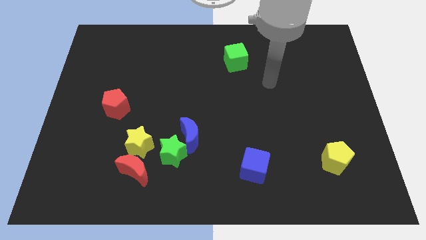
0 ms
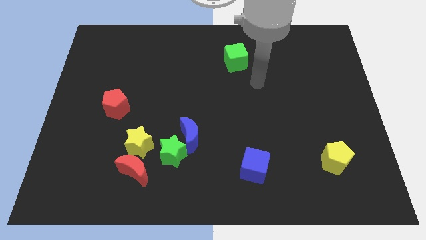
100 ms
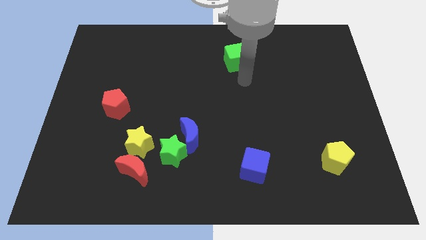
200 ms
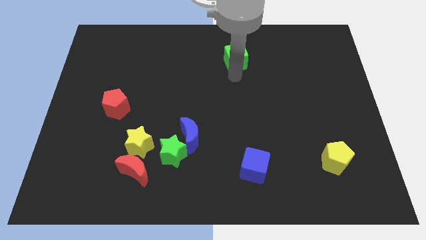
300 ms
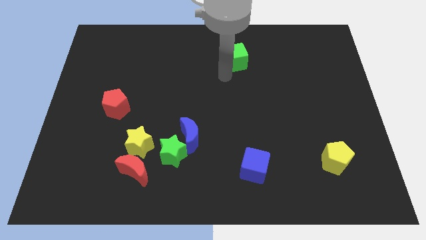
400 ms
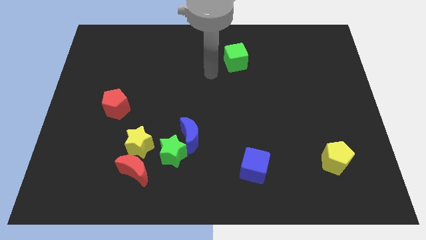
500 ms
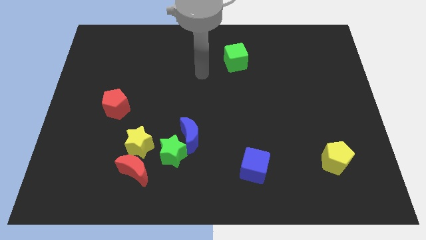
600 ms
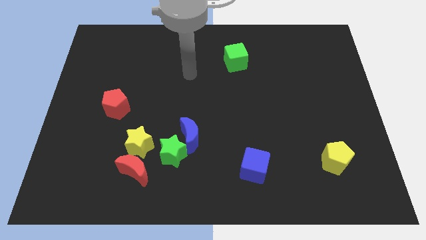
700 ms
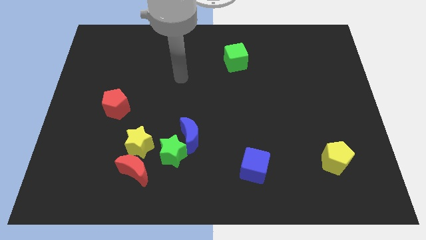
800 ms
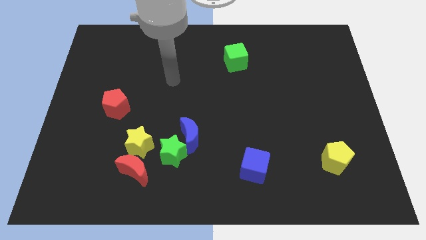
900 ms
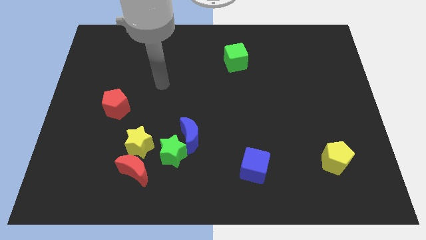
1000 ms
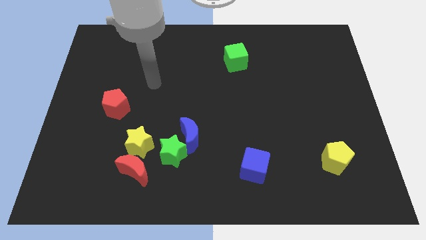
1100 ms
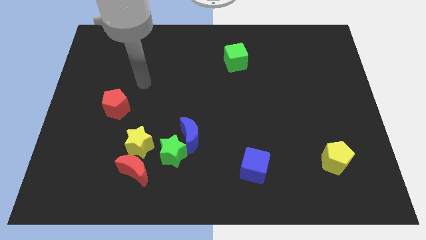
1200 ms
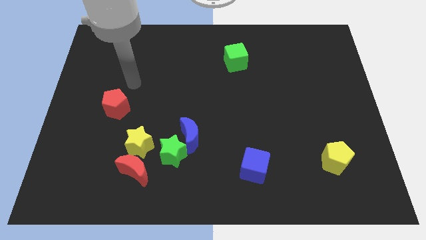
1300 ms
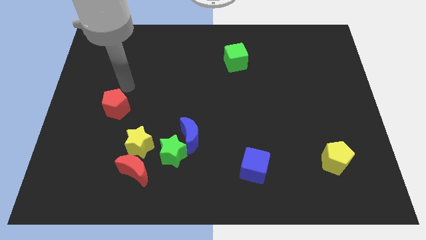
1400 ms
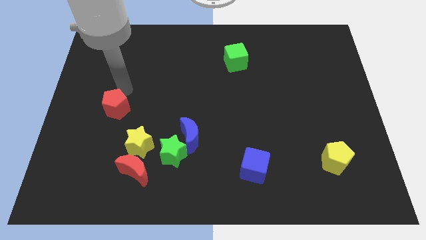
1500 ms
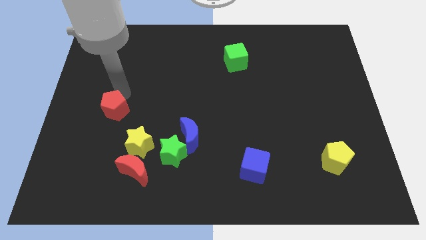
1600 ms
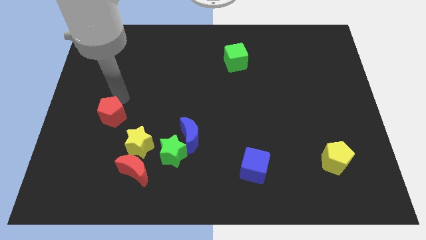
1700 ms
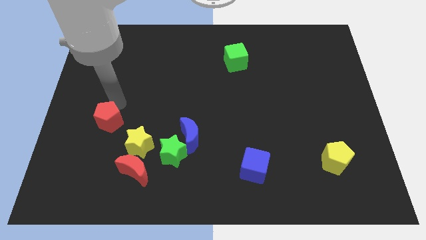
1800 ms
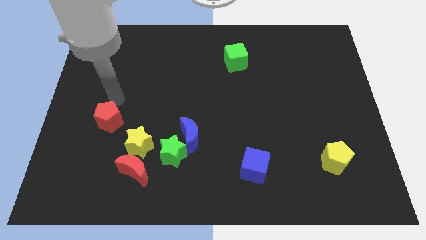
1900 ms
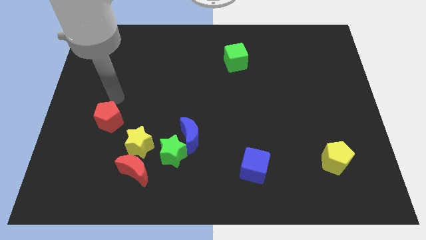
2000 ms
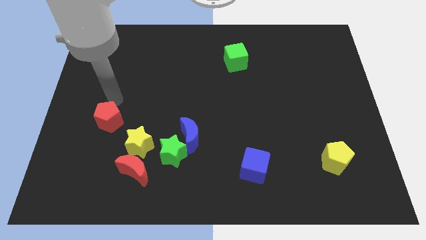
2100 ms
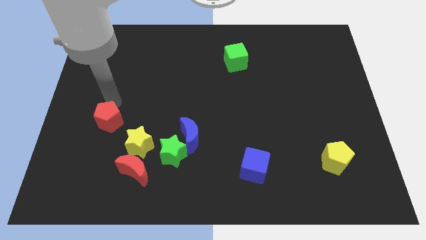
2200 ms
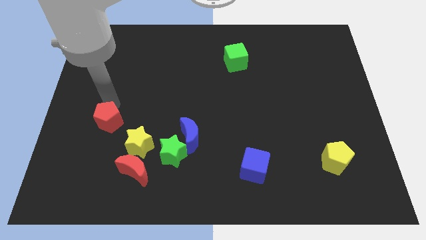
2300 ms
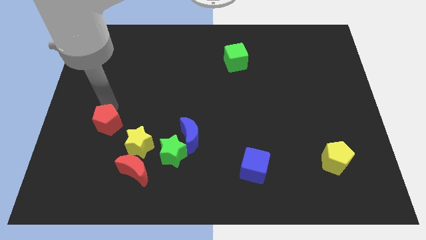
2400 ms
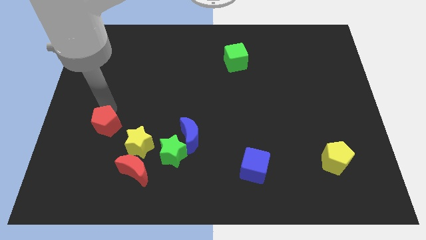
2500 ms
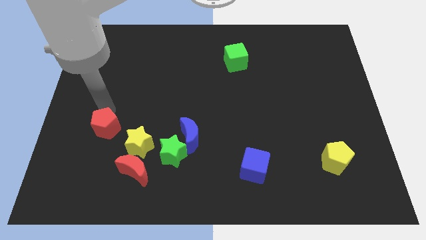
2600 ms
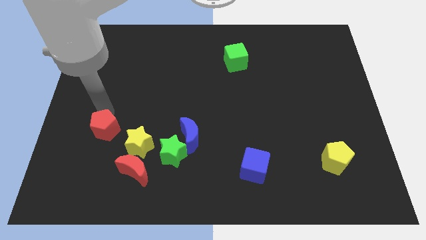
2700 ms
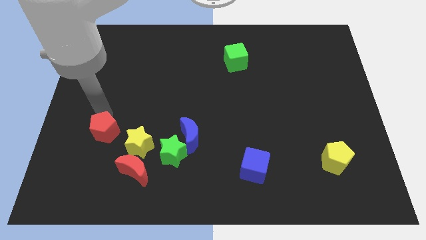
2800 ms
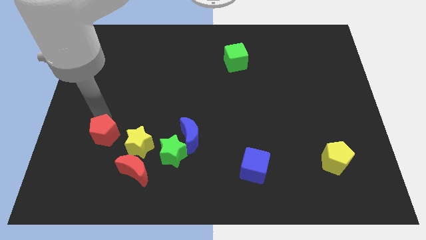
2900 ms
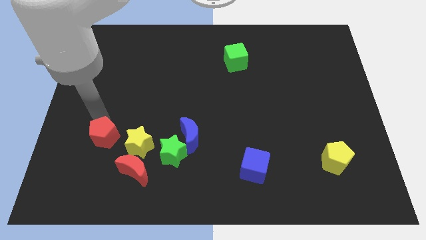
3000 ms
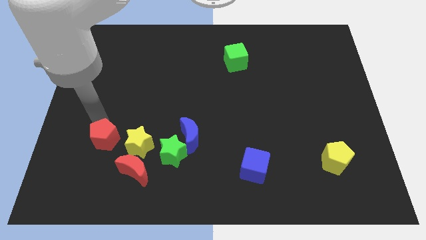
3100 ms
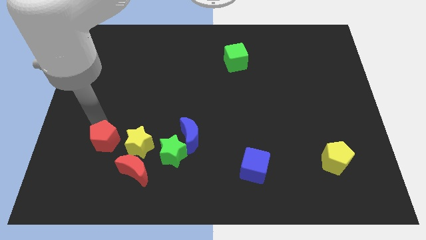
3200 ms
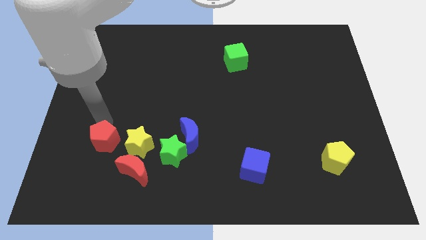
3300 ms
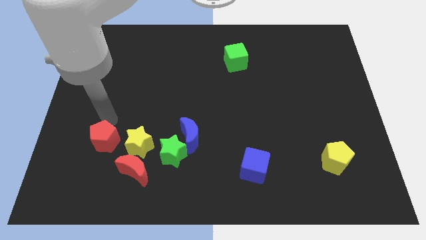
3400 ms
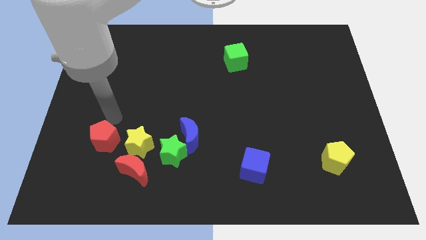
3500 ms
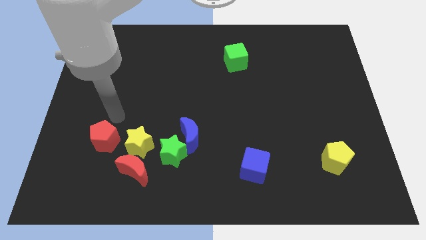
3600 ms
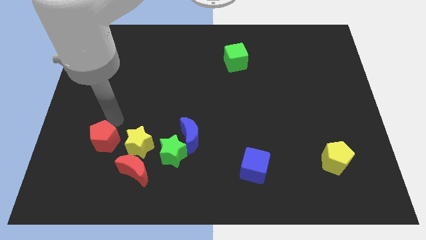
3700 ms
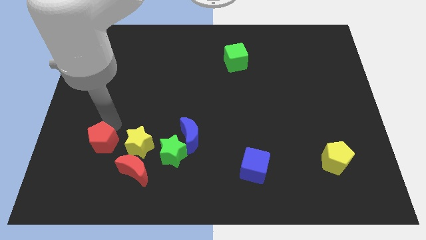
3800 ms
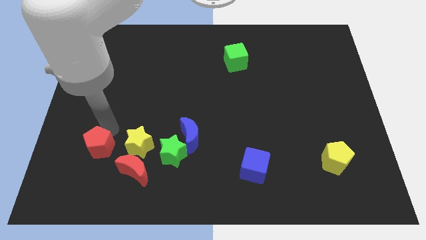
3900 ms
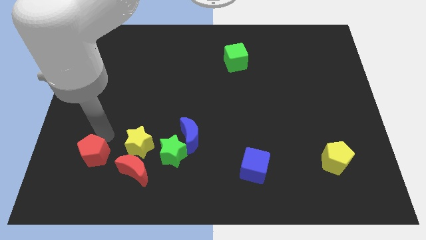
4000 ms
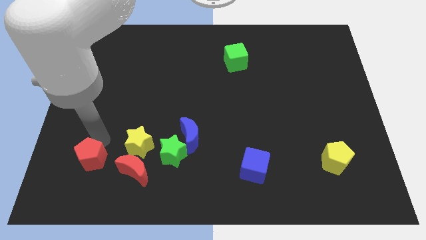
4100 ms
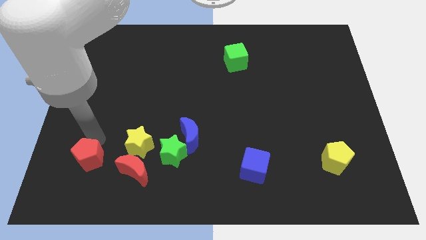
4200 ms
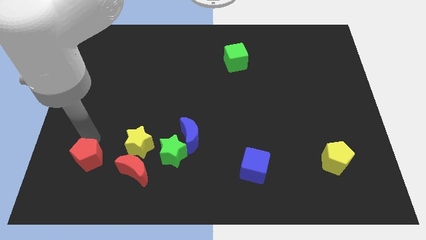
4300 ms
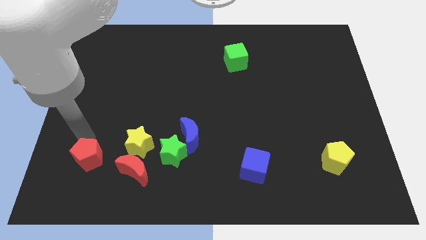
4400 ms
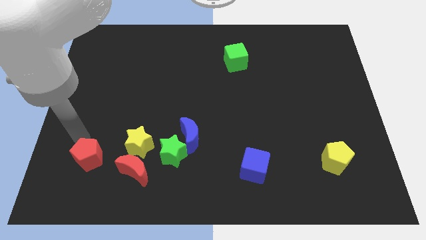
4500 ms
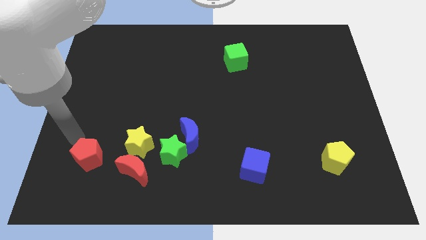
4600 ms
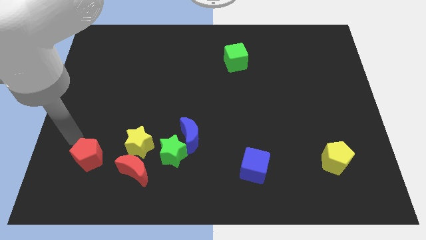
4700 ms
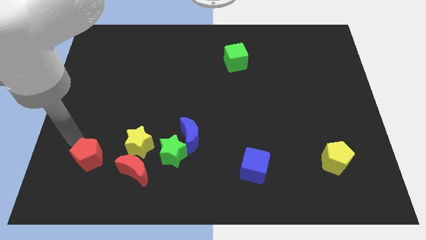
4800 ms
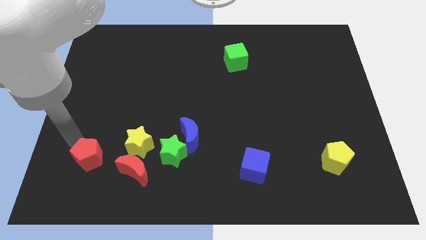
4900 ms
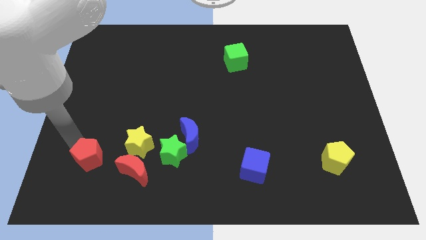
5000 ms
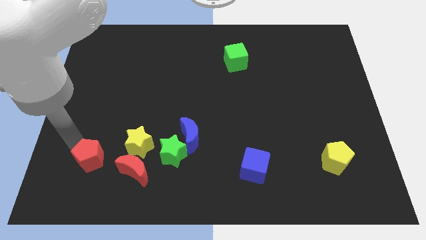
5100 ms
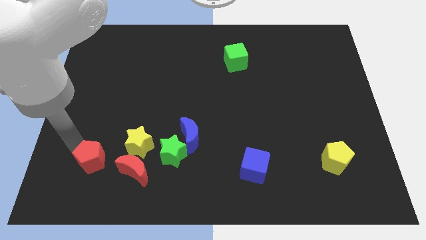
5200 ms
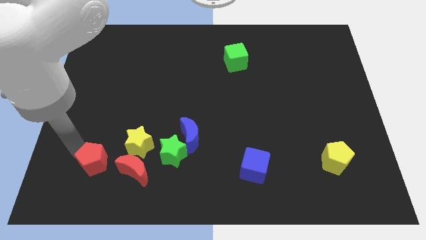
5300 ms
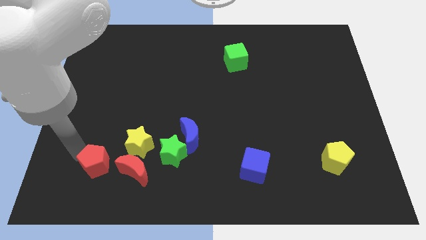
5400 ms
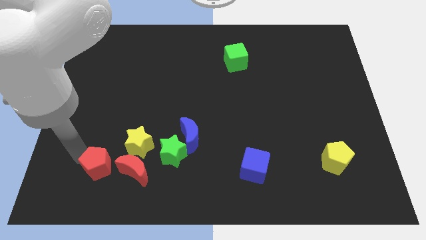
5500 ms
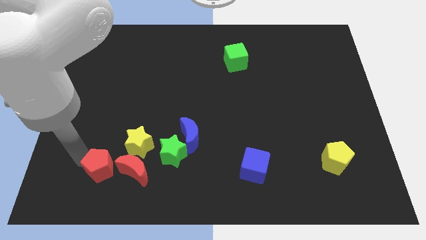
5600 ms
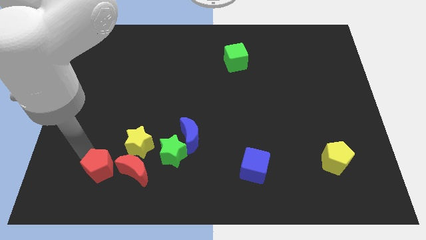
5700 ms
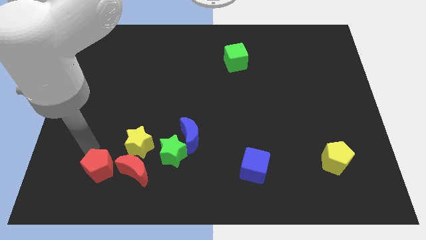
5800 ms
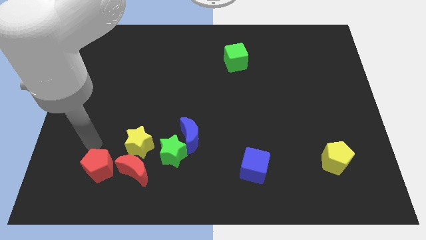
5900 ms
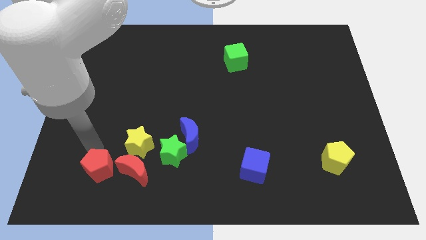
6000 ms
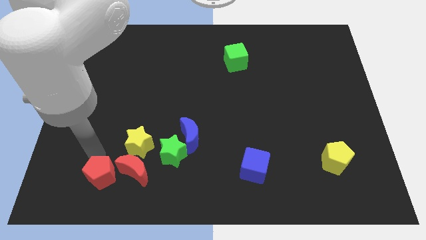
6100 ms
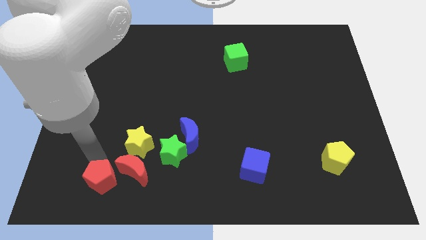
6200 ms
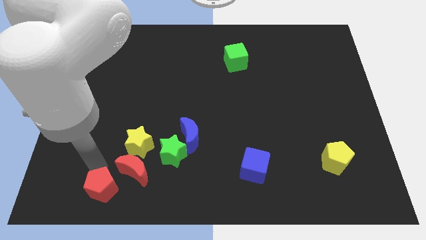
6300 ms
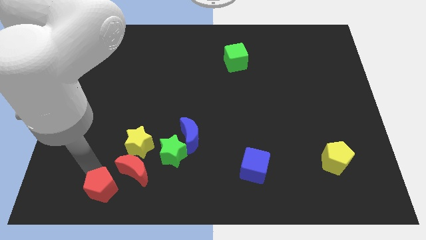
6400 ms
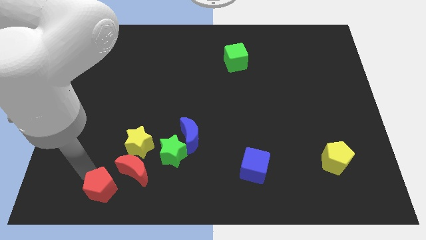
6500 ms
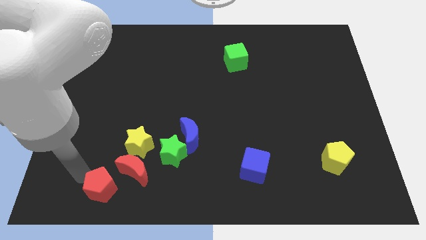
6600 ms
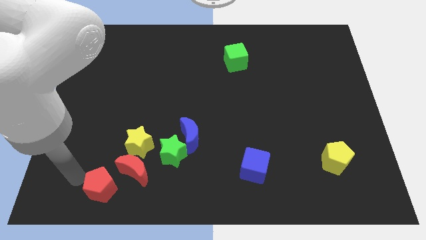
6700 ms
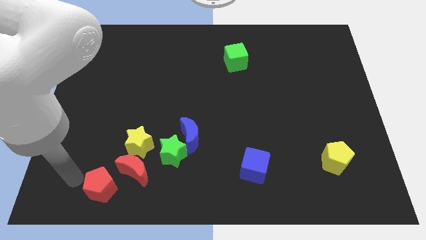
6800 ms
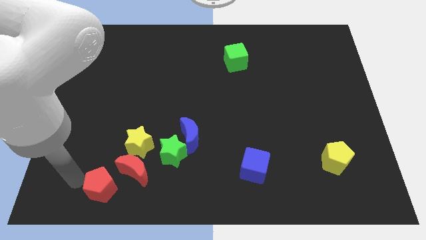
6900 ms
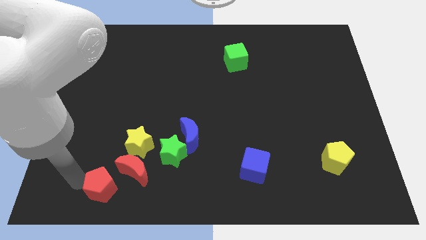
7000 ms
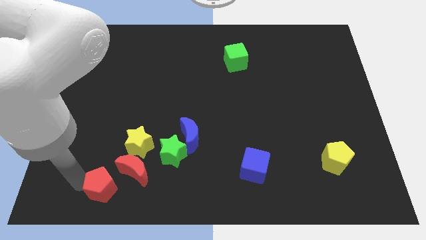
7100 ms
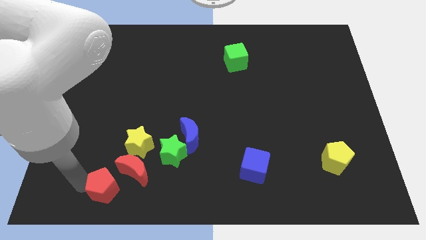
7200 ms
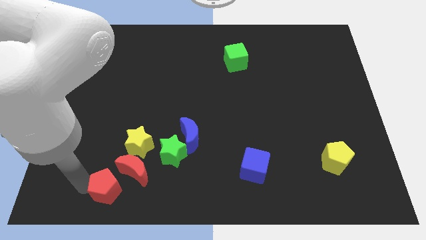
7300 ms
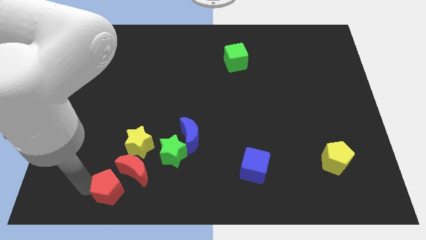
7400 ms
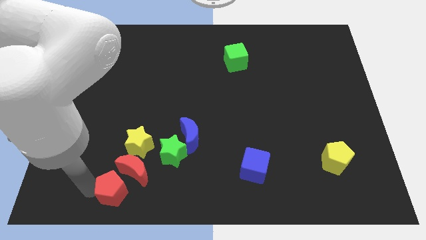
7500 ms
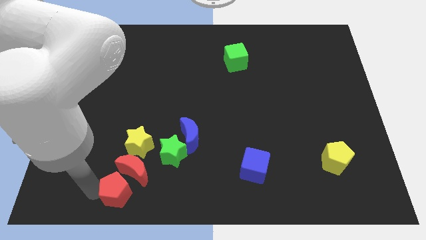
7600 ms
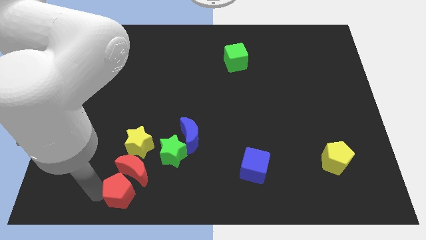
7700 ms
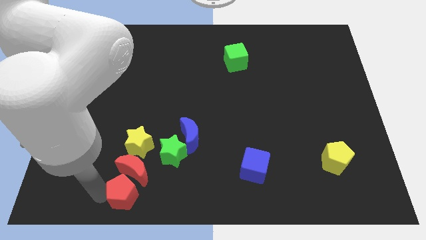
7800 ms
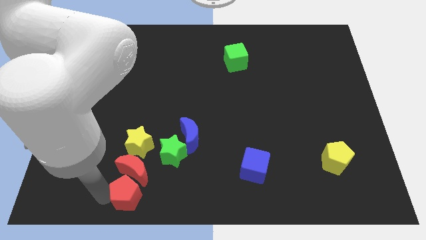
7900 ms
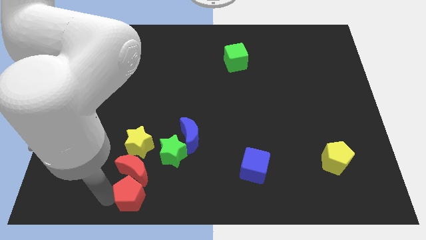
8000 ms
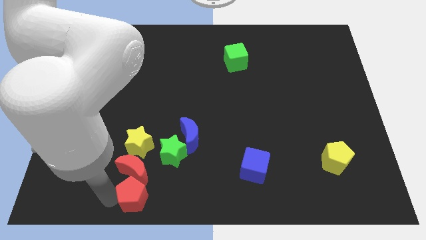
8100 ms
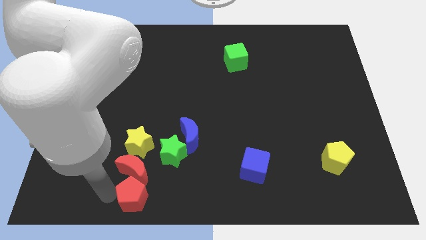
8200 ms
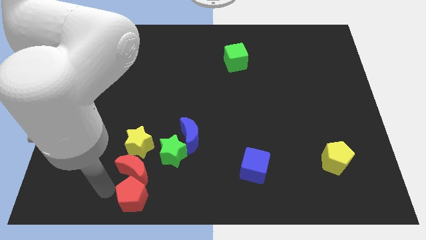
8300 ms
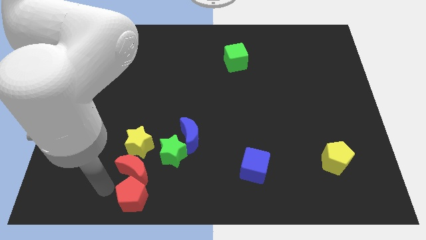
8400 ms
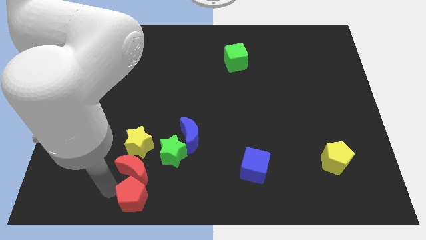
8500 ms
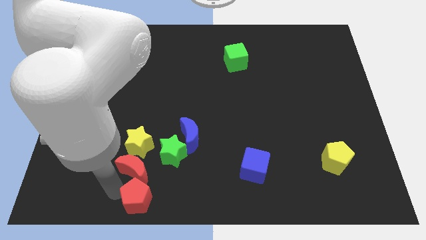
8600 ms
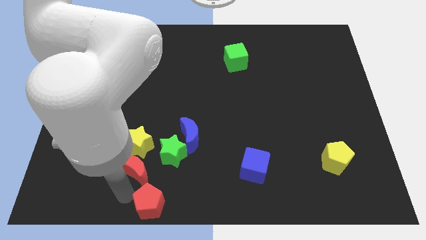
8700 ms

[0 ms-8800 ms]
move the red pentagon to the bottom side
